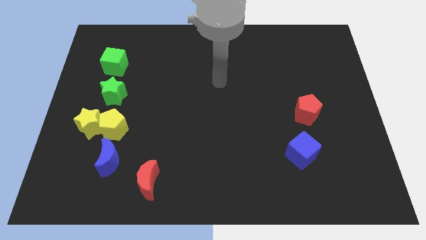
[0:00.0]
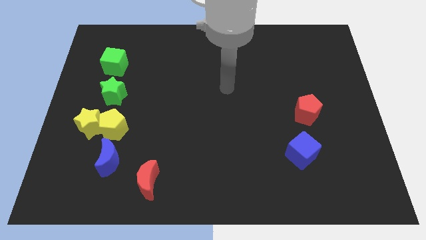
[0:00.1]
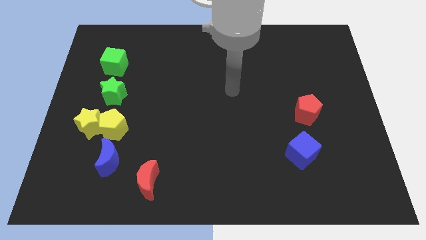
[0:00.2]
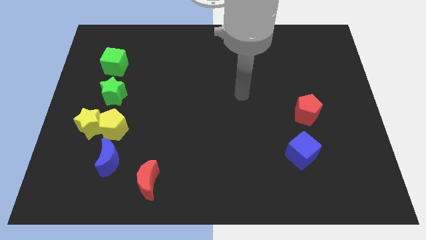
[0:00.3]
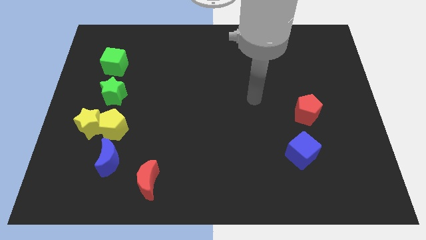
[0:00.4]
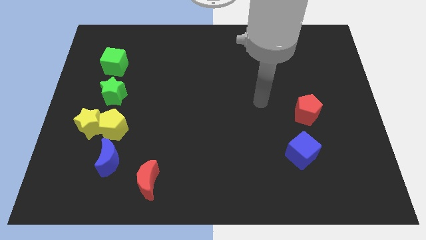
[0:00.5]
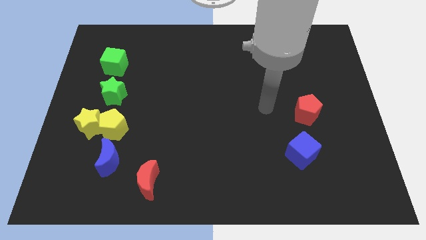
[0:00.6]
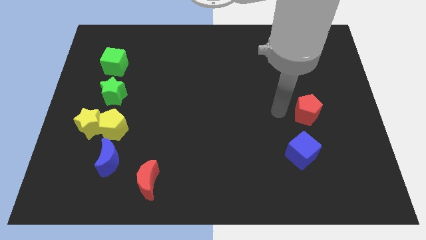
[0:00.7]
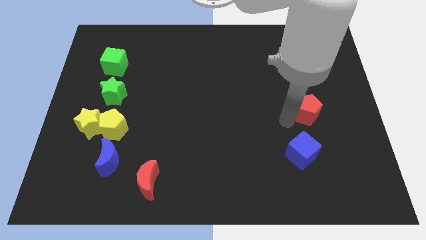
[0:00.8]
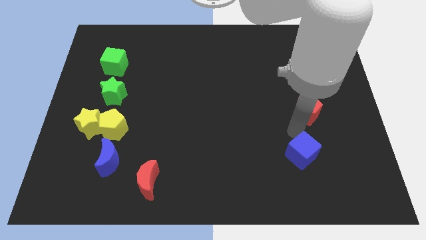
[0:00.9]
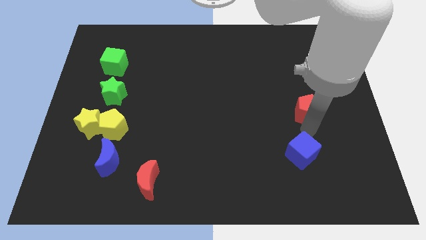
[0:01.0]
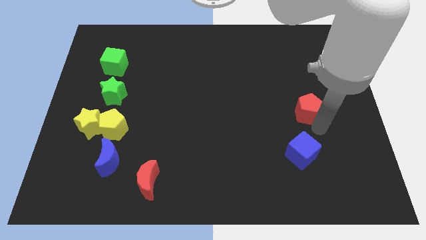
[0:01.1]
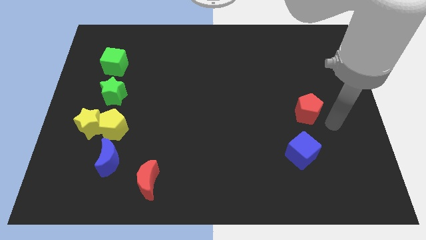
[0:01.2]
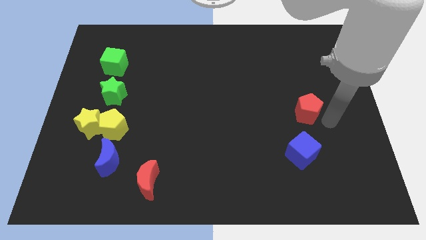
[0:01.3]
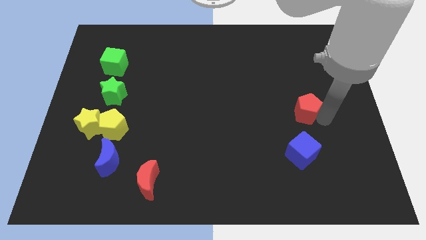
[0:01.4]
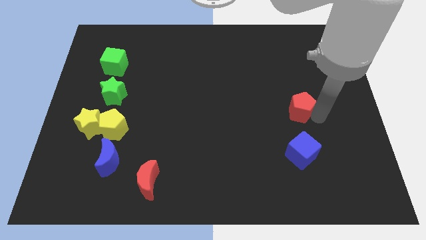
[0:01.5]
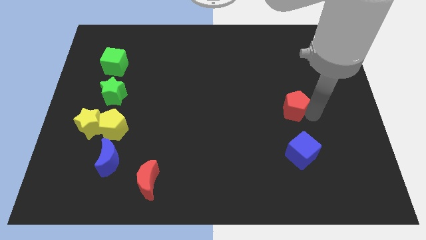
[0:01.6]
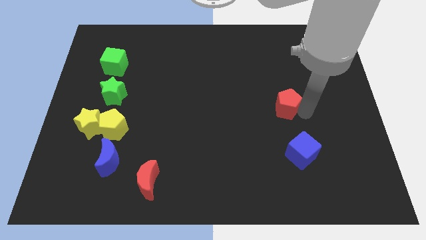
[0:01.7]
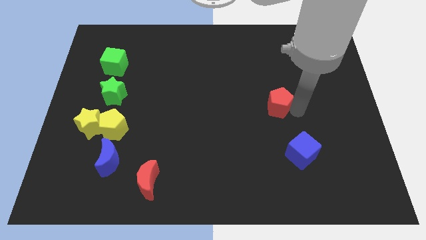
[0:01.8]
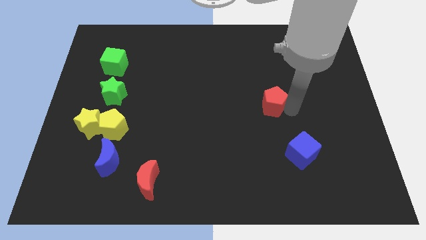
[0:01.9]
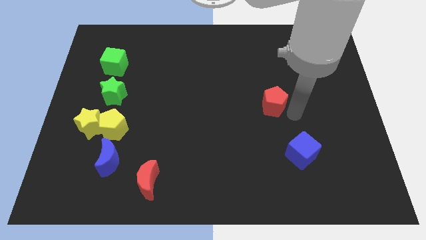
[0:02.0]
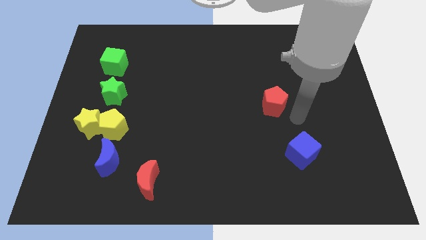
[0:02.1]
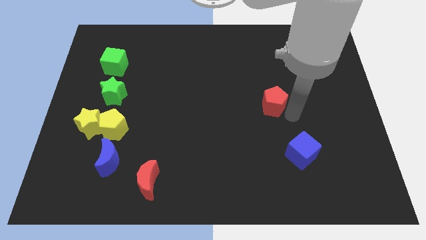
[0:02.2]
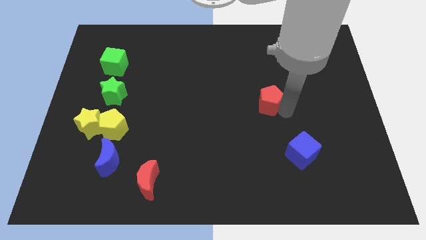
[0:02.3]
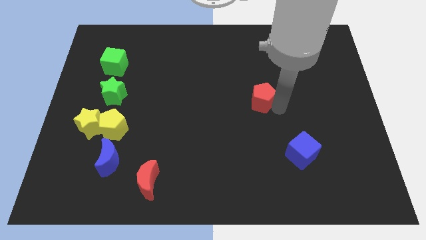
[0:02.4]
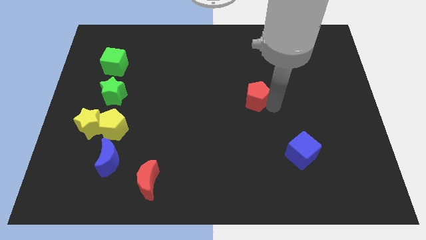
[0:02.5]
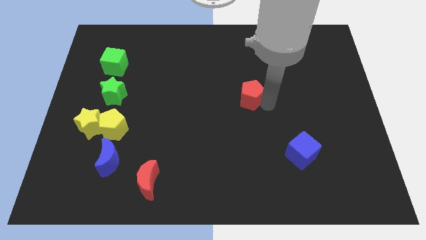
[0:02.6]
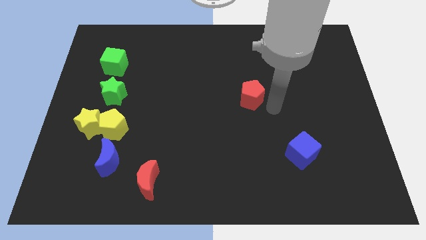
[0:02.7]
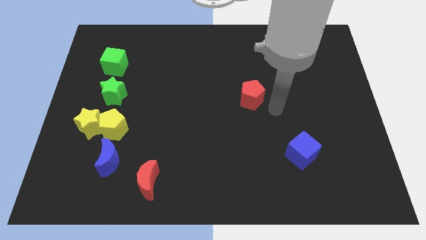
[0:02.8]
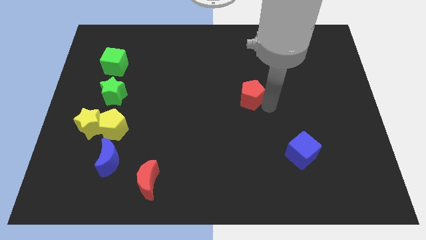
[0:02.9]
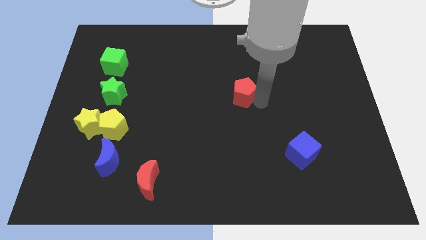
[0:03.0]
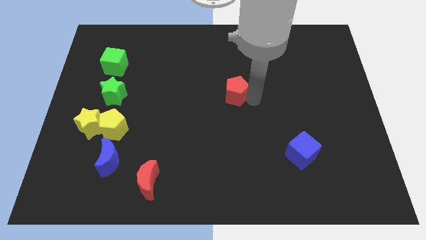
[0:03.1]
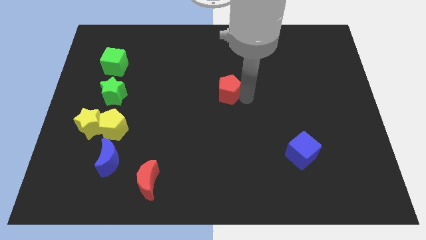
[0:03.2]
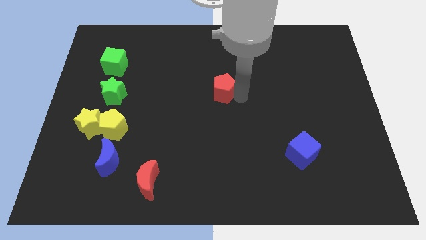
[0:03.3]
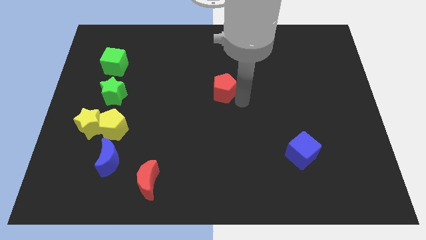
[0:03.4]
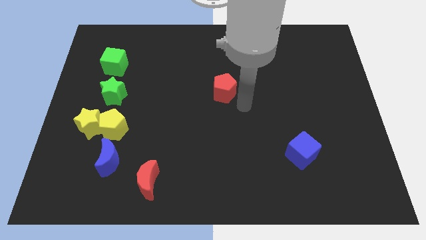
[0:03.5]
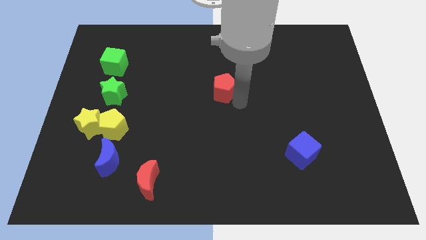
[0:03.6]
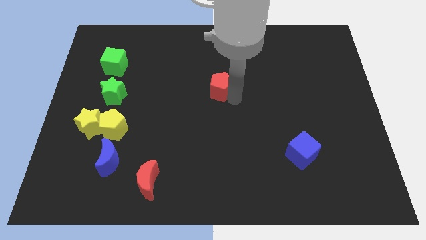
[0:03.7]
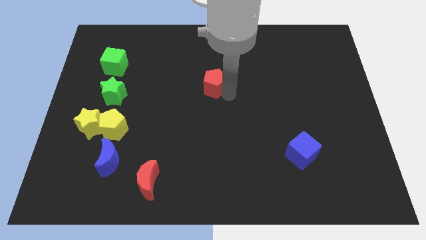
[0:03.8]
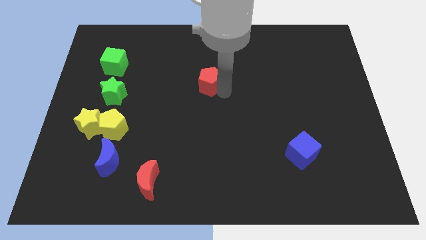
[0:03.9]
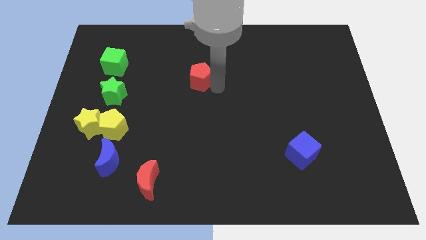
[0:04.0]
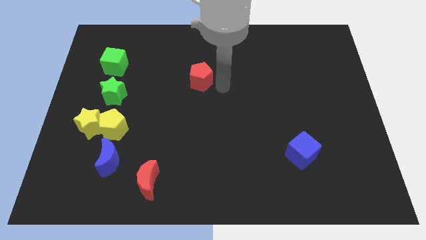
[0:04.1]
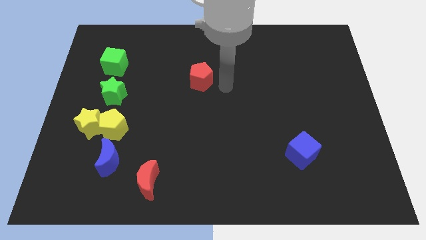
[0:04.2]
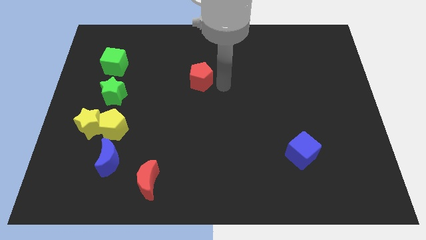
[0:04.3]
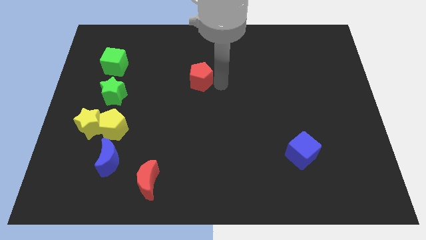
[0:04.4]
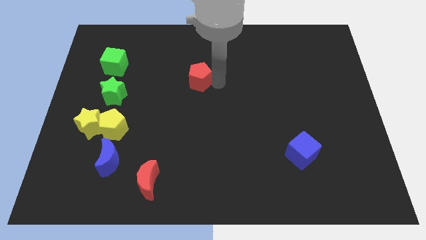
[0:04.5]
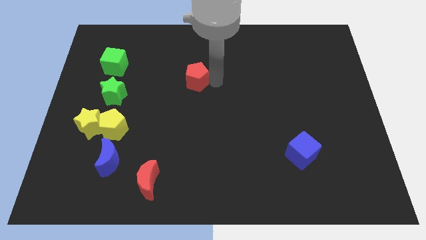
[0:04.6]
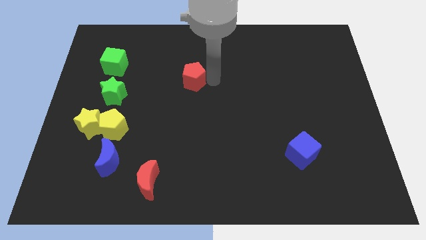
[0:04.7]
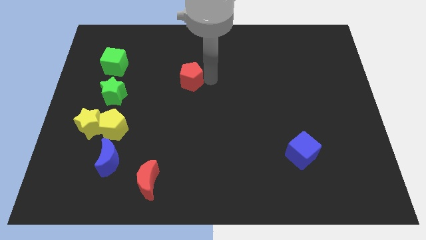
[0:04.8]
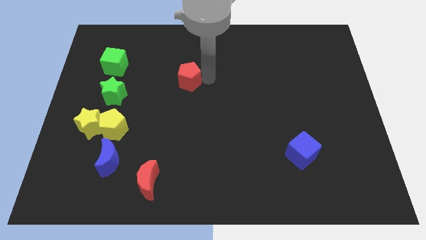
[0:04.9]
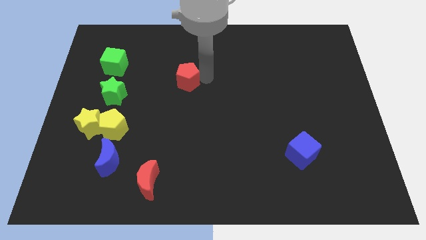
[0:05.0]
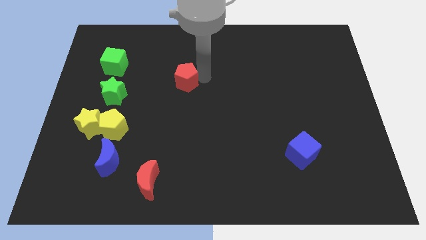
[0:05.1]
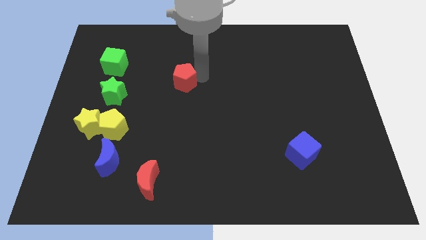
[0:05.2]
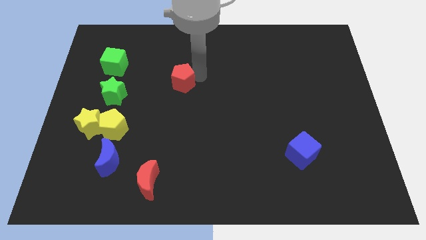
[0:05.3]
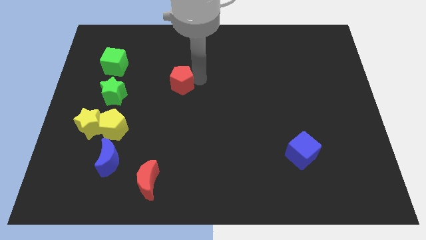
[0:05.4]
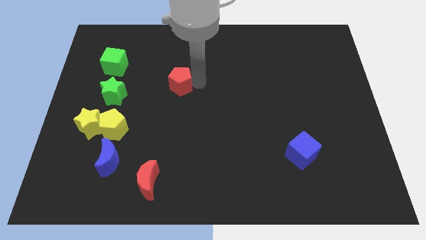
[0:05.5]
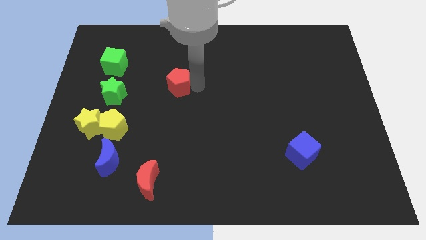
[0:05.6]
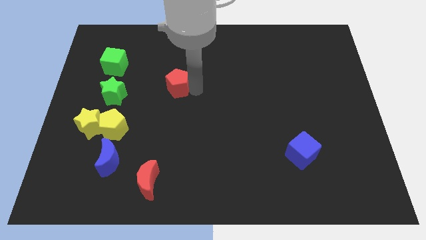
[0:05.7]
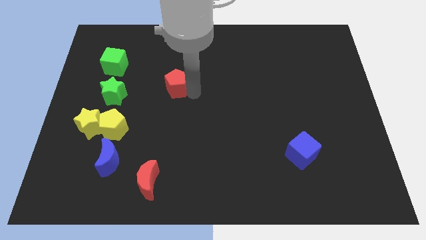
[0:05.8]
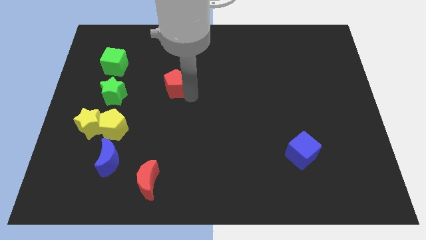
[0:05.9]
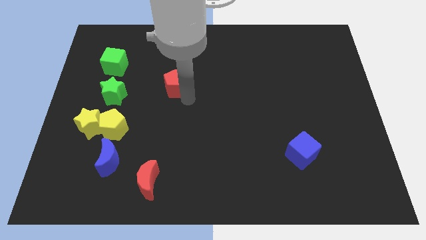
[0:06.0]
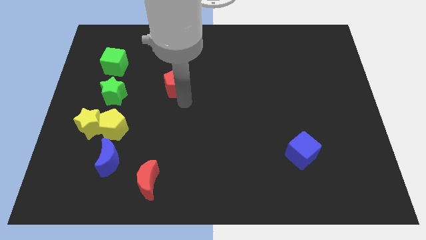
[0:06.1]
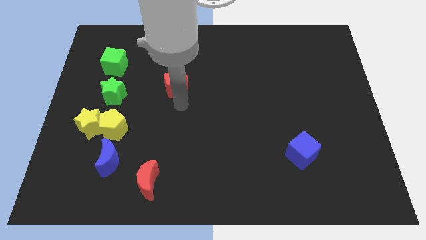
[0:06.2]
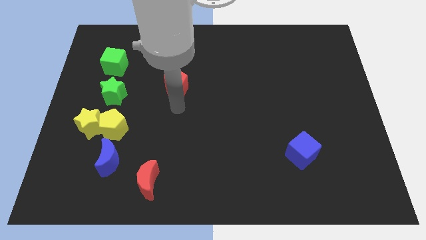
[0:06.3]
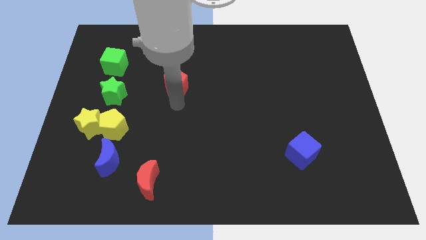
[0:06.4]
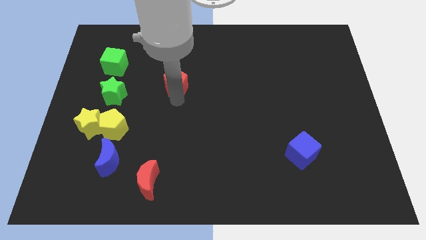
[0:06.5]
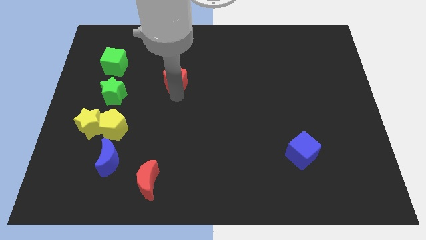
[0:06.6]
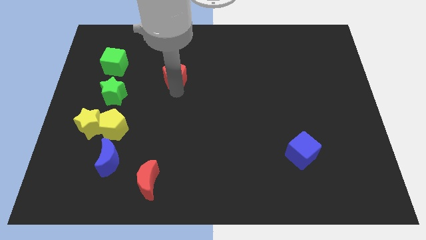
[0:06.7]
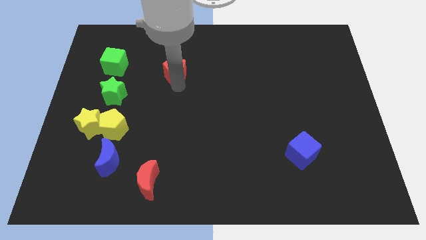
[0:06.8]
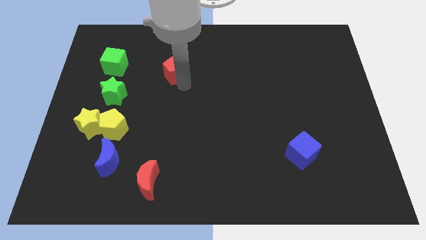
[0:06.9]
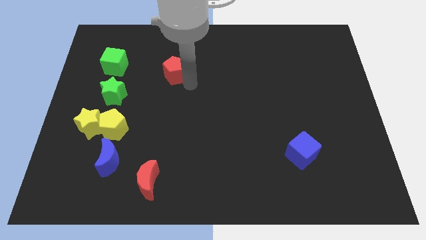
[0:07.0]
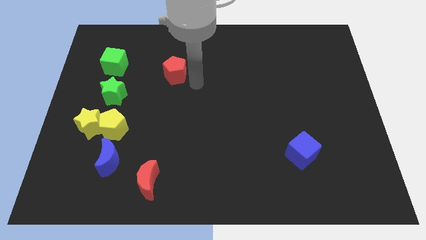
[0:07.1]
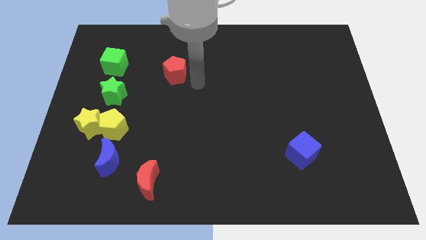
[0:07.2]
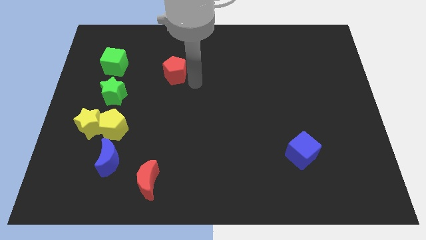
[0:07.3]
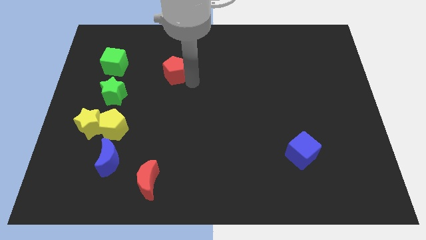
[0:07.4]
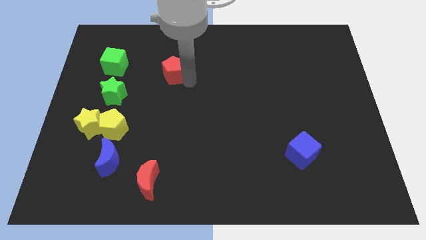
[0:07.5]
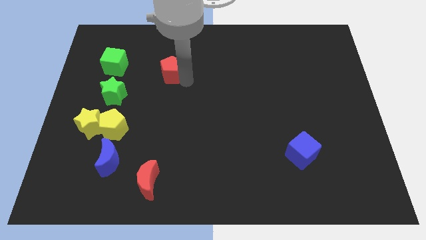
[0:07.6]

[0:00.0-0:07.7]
put the red pentagon to the right of the green cube
